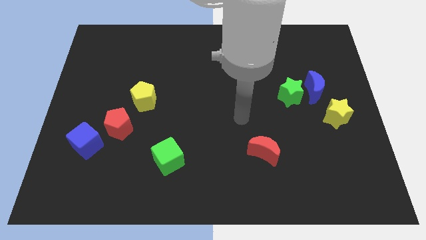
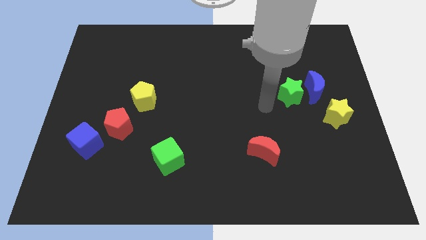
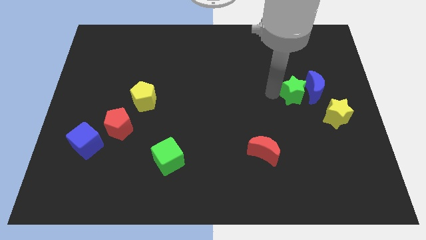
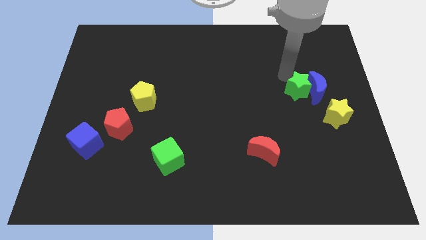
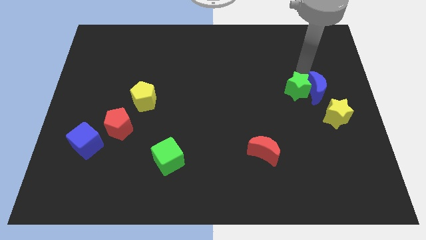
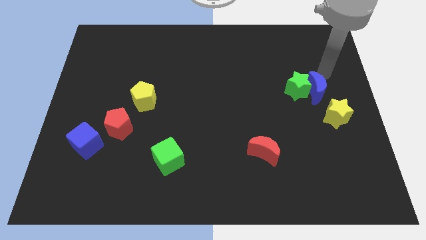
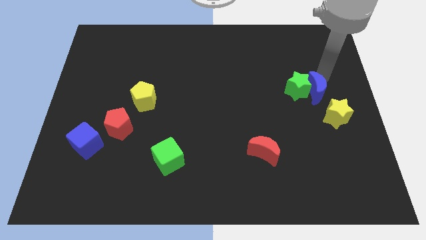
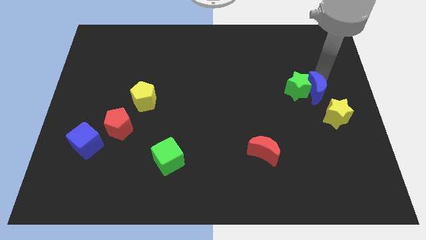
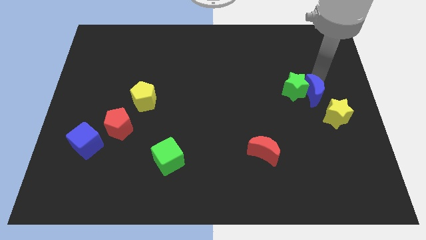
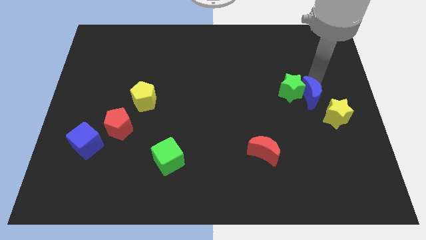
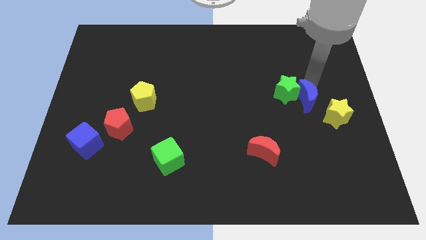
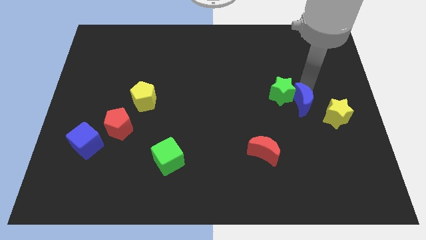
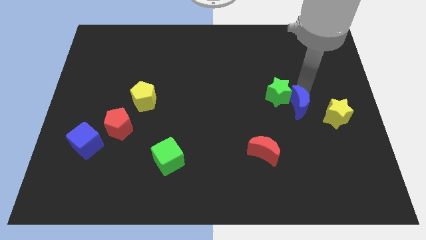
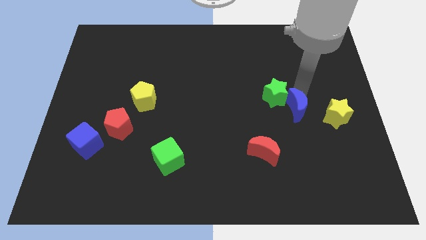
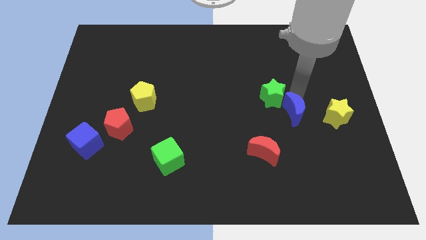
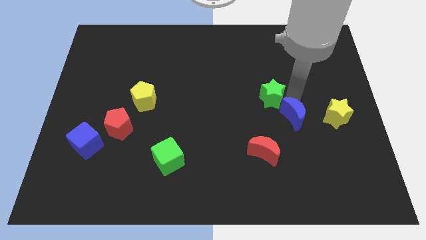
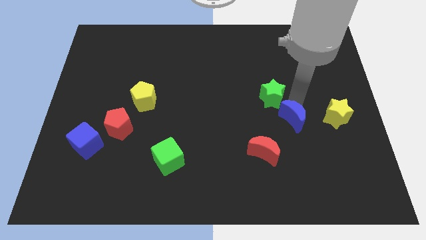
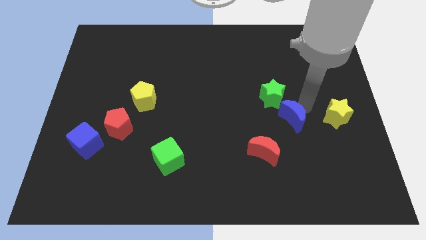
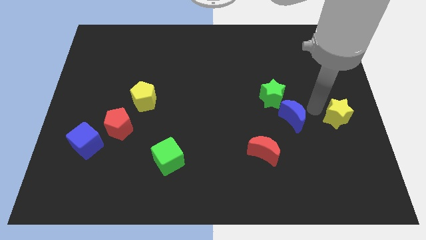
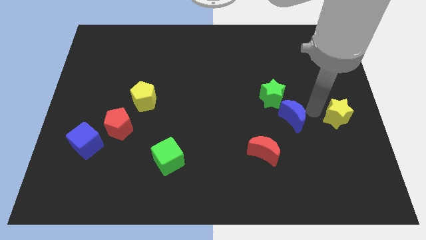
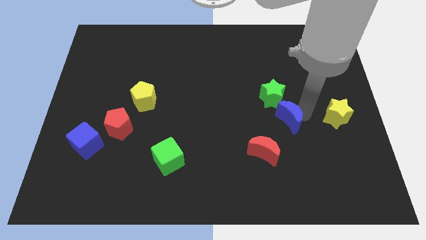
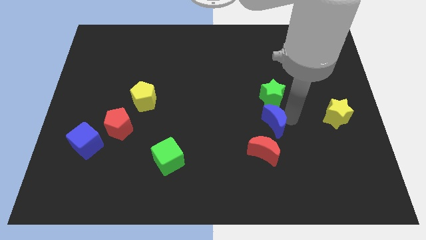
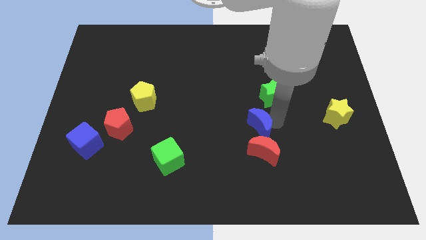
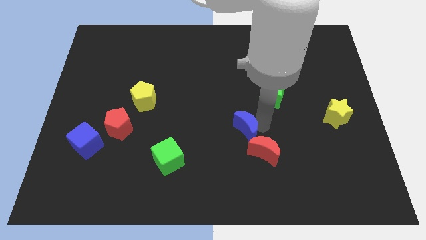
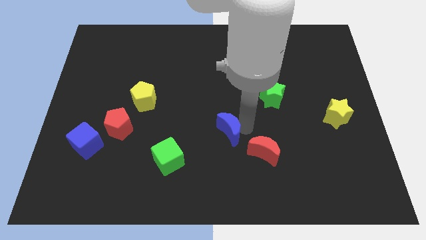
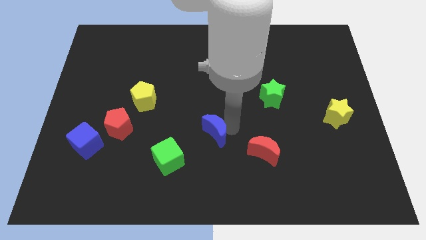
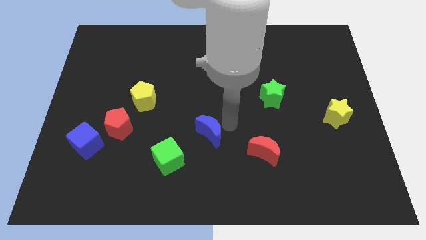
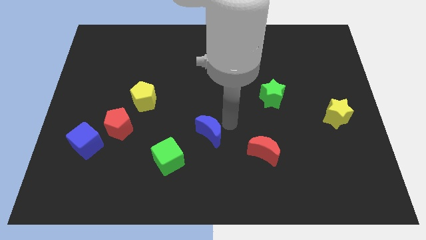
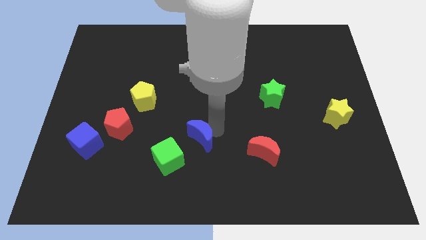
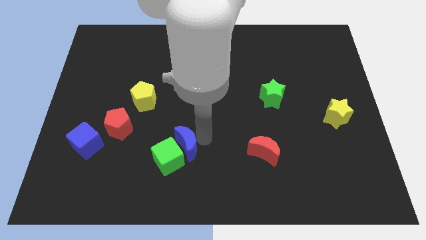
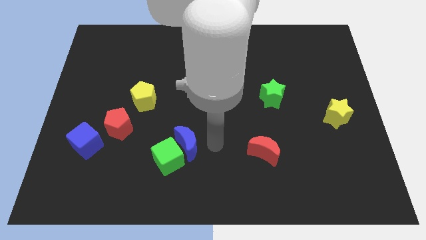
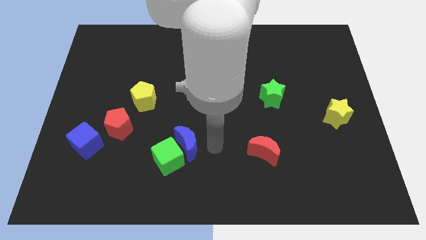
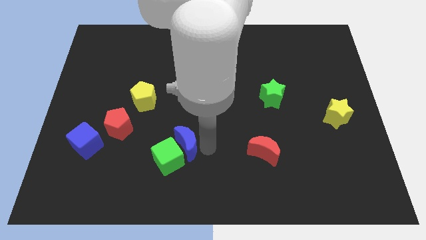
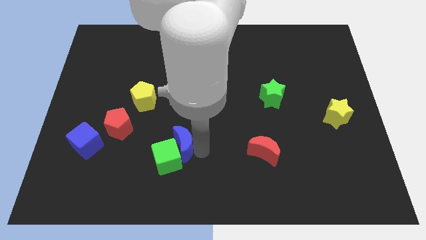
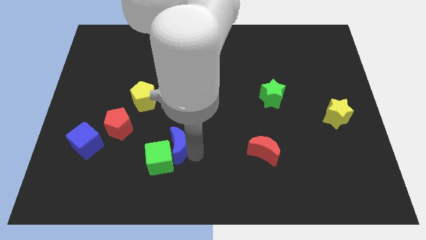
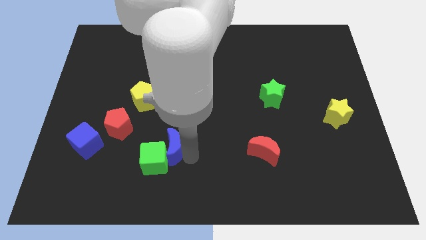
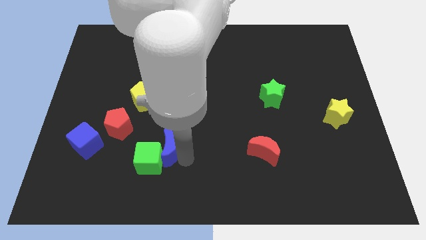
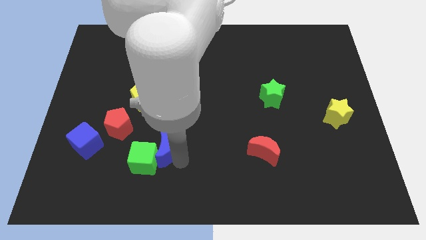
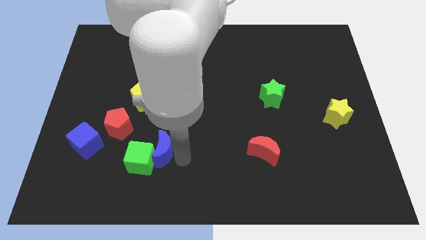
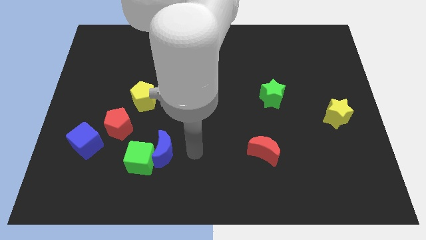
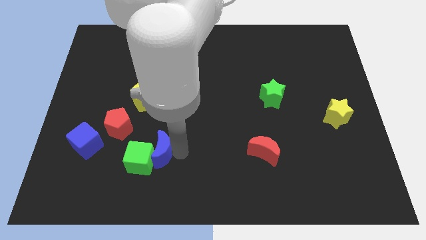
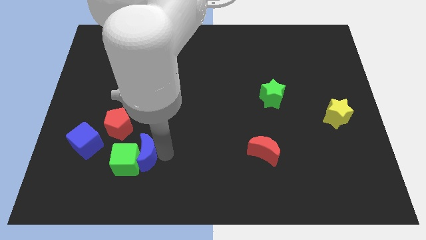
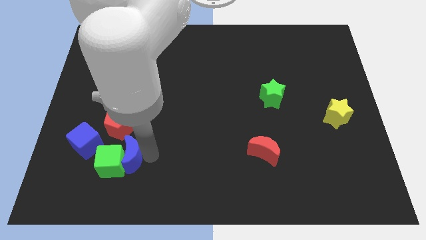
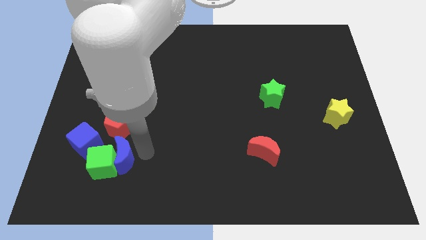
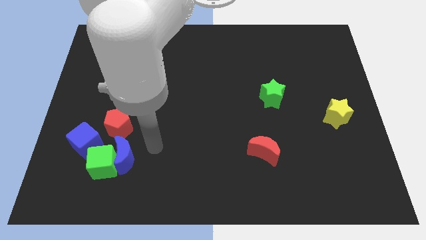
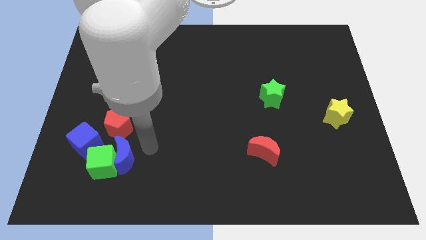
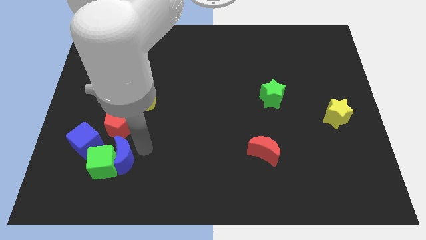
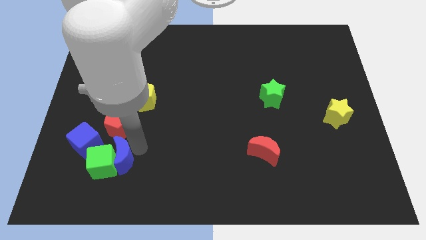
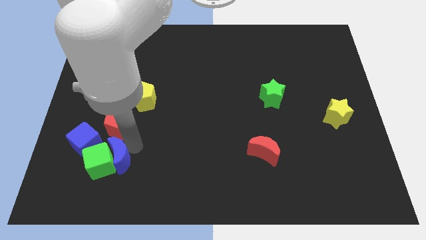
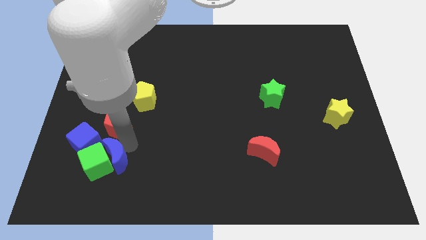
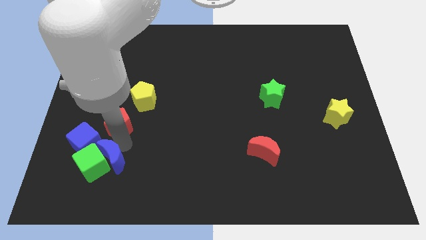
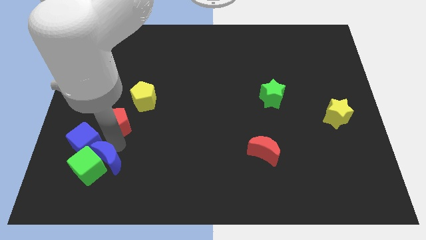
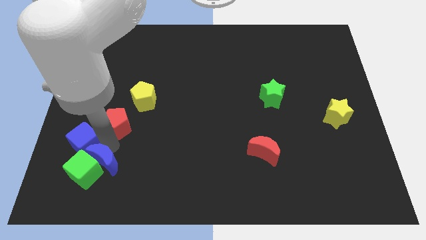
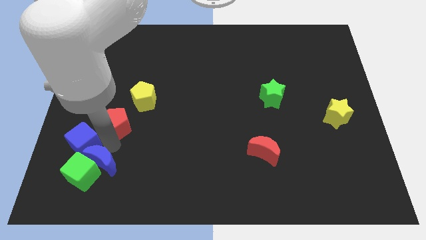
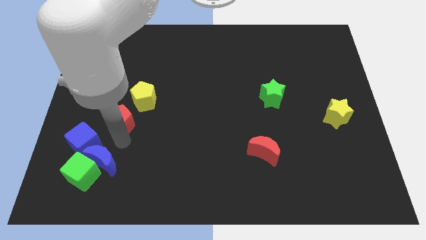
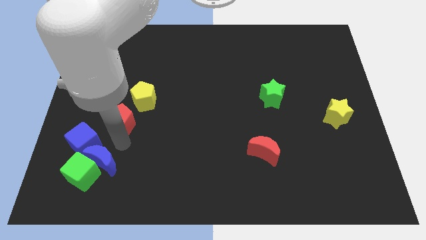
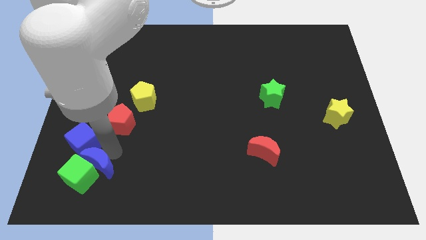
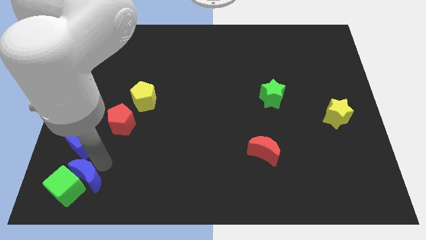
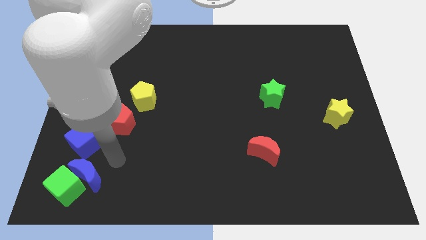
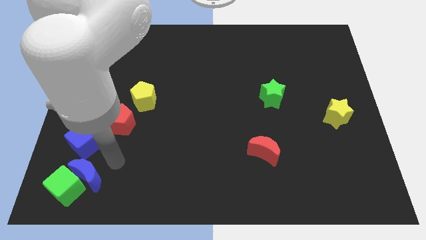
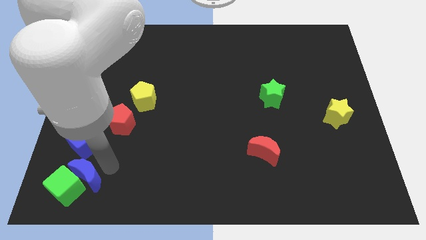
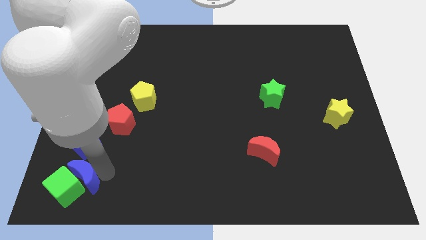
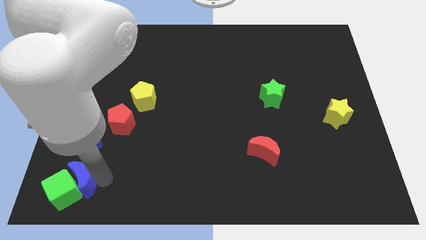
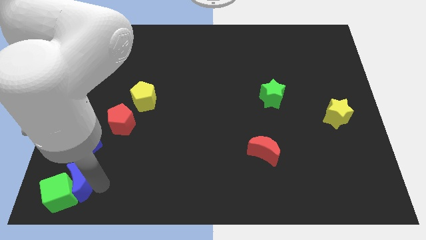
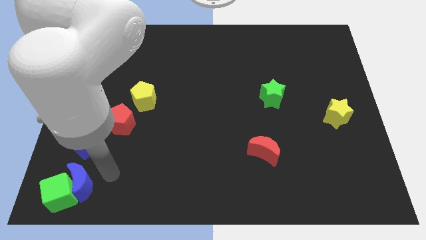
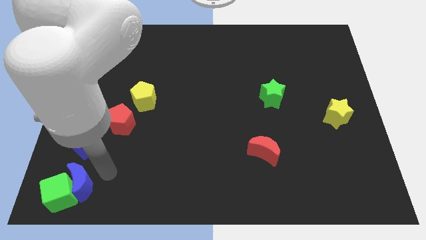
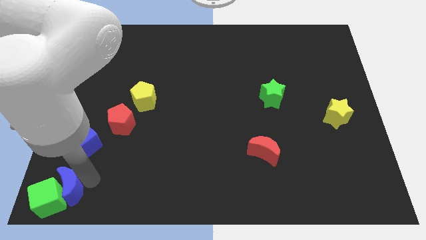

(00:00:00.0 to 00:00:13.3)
slide the blue moon to the bottom left corner
